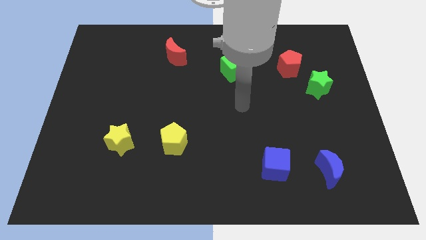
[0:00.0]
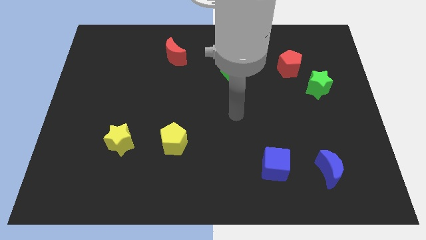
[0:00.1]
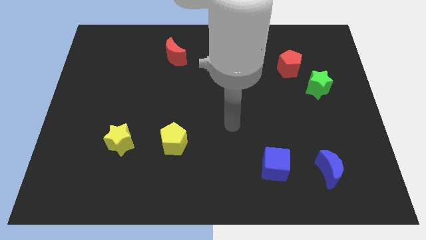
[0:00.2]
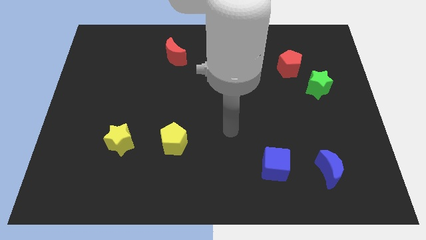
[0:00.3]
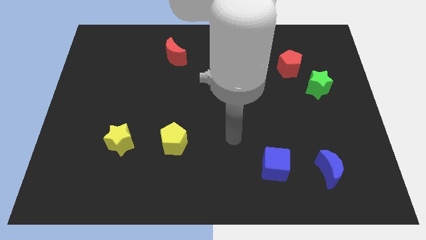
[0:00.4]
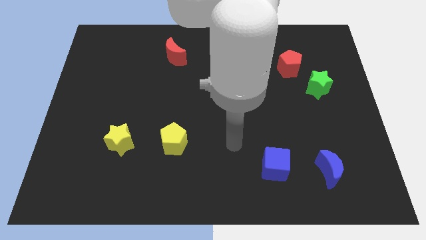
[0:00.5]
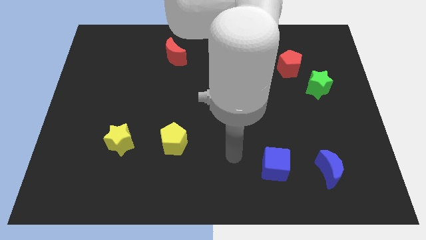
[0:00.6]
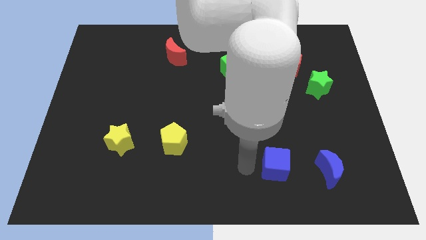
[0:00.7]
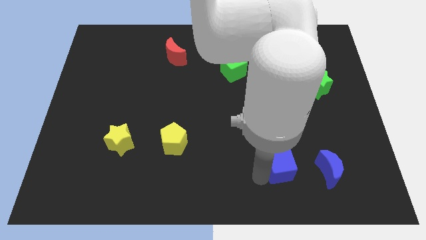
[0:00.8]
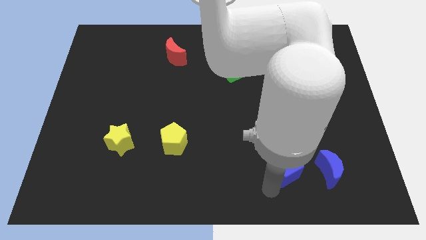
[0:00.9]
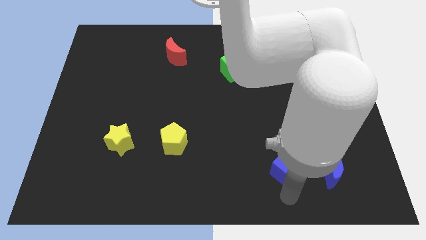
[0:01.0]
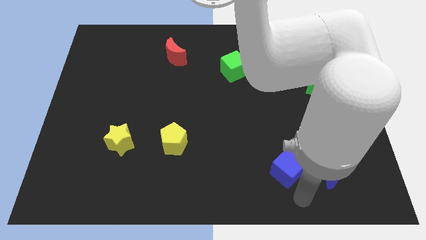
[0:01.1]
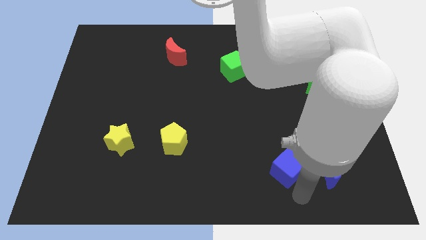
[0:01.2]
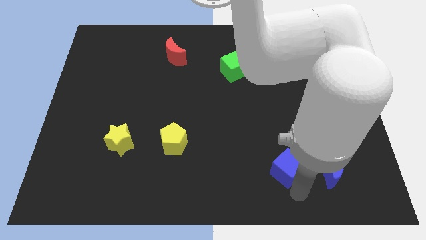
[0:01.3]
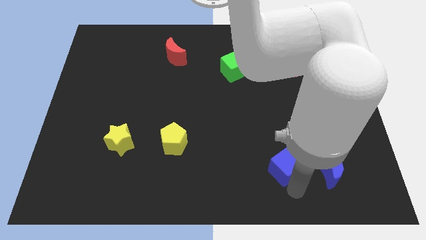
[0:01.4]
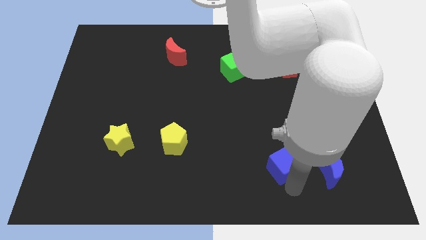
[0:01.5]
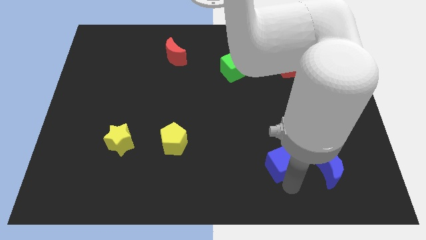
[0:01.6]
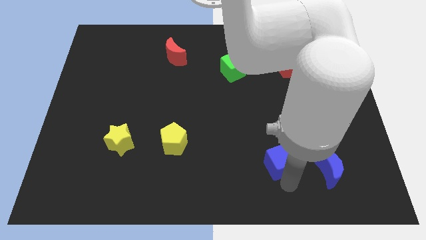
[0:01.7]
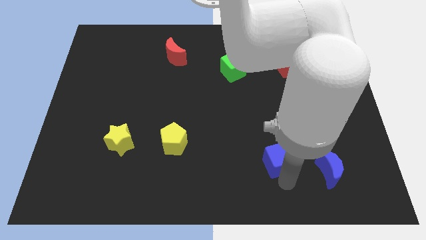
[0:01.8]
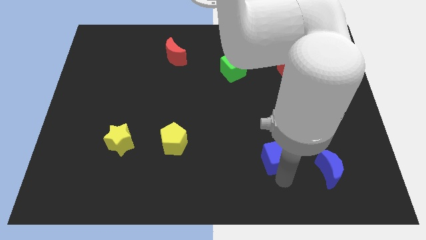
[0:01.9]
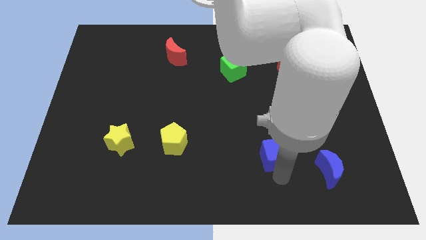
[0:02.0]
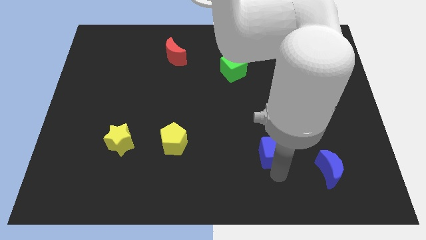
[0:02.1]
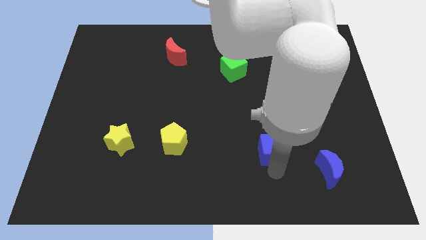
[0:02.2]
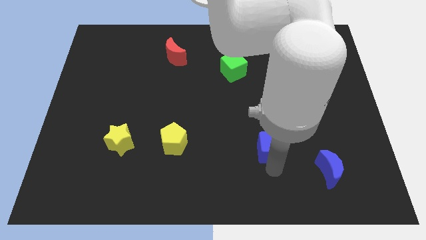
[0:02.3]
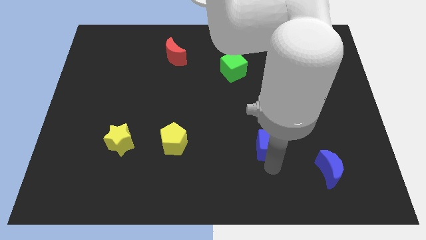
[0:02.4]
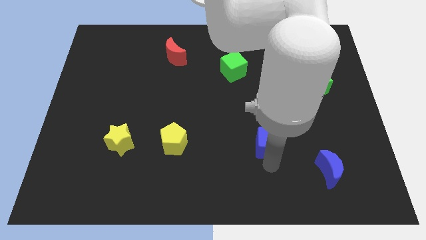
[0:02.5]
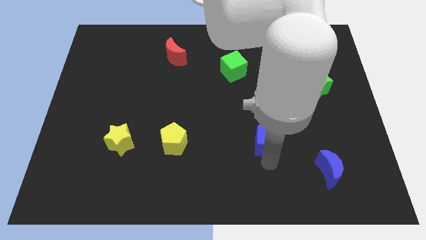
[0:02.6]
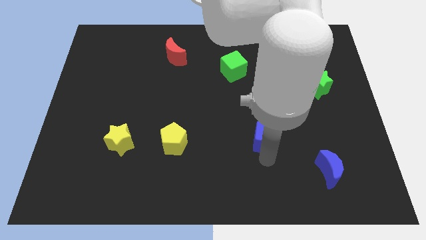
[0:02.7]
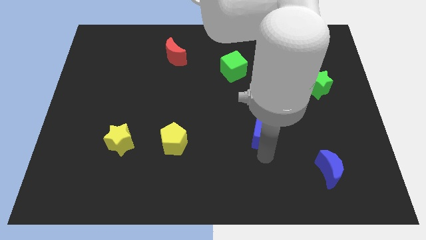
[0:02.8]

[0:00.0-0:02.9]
slightly push the blue cube upwards

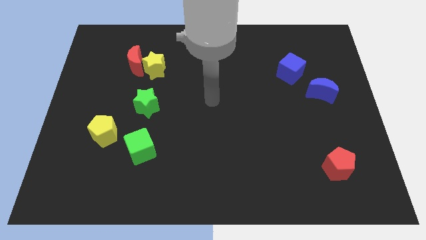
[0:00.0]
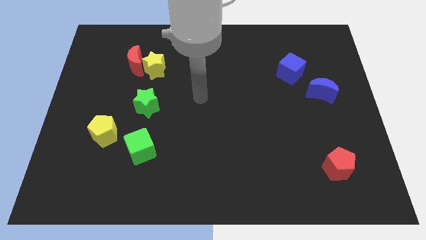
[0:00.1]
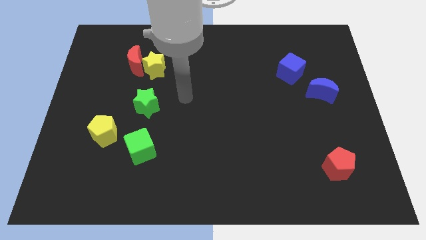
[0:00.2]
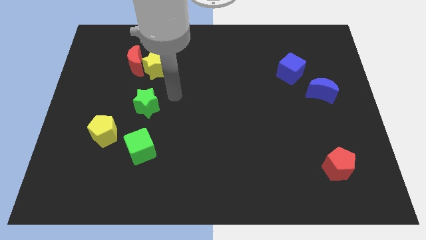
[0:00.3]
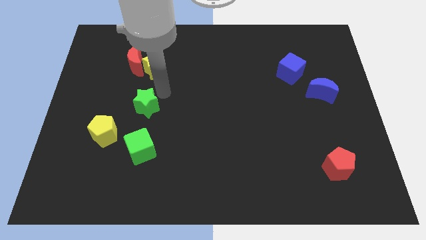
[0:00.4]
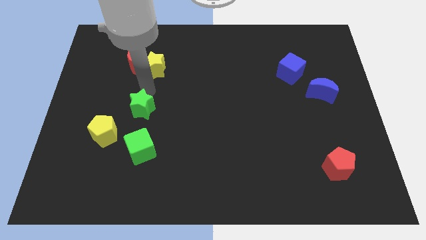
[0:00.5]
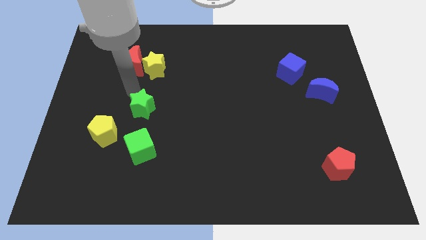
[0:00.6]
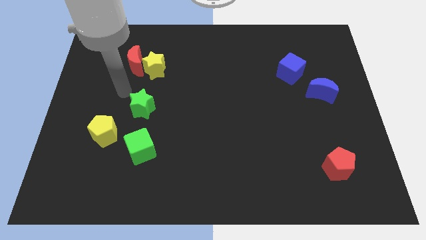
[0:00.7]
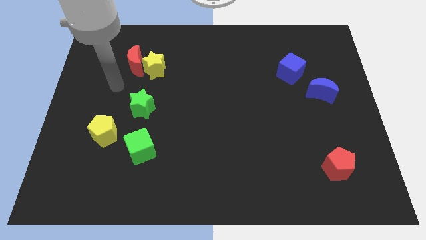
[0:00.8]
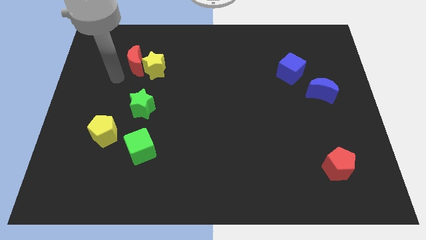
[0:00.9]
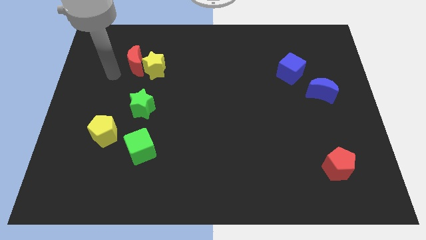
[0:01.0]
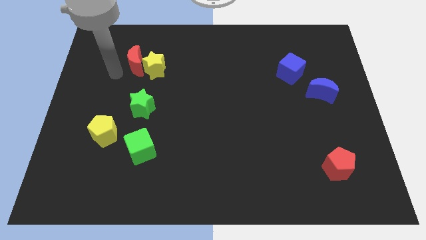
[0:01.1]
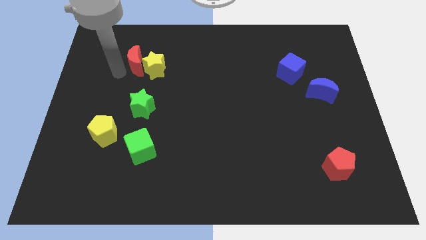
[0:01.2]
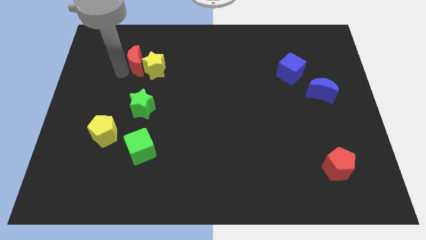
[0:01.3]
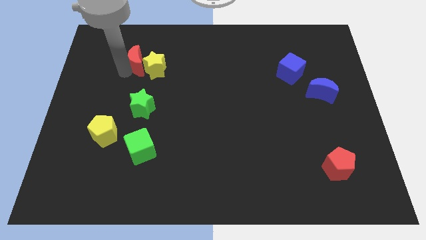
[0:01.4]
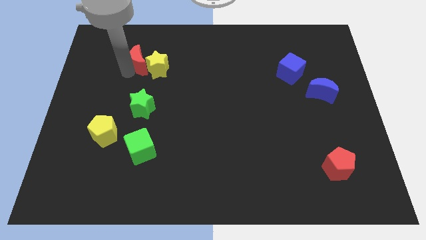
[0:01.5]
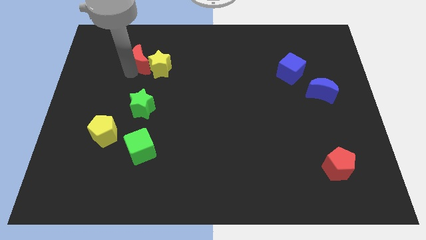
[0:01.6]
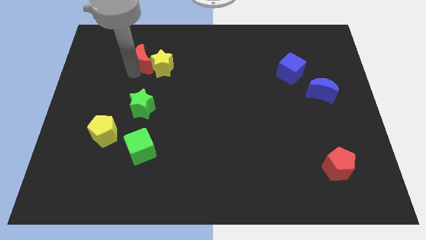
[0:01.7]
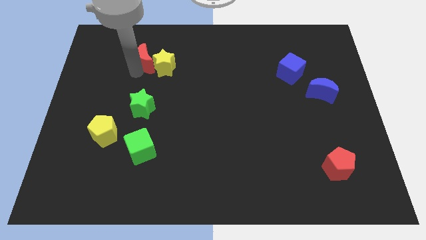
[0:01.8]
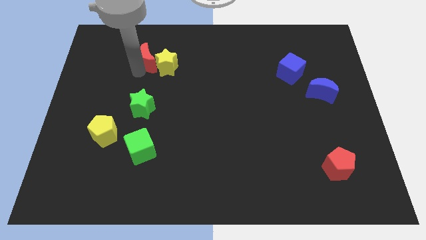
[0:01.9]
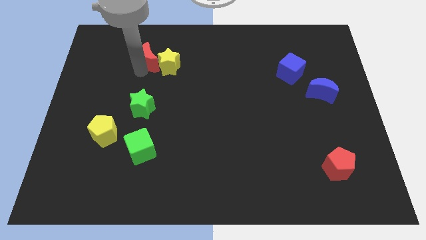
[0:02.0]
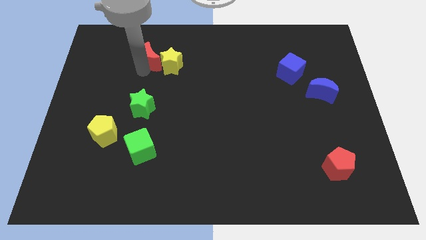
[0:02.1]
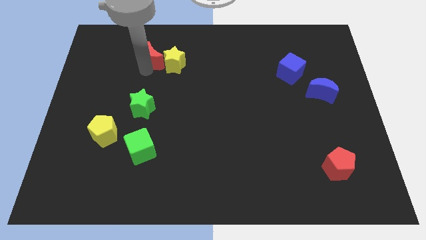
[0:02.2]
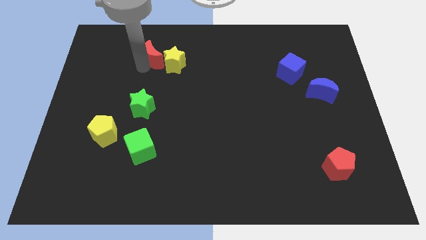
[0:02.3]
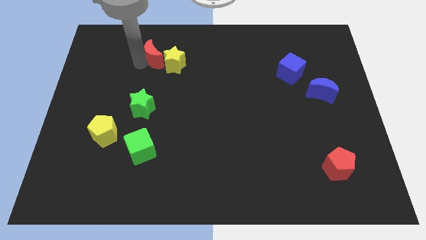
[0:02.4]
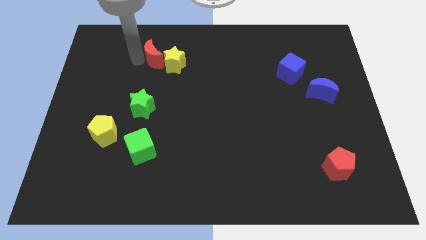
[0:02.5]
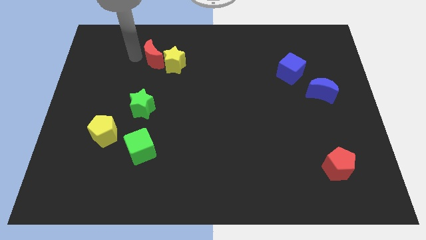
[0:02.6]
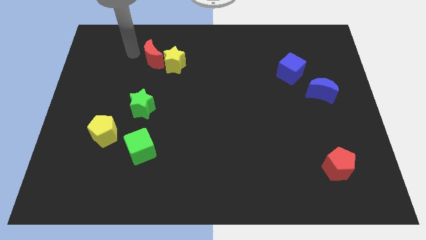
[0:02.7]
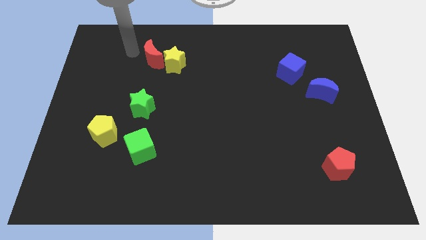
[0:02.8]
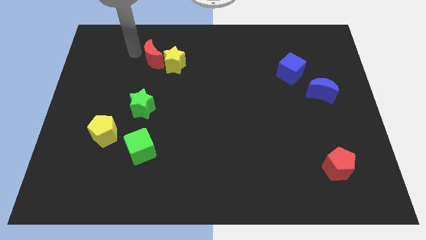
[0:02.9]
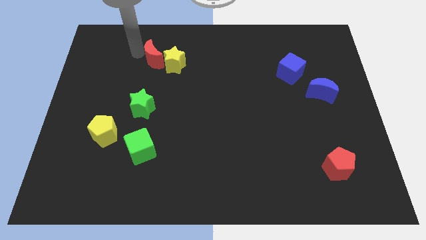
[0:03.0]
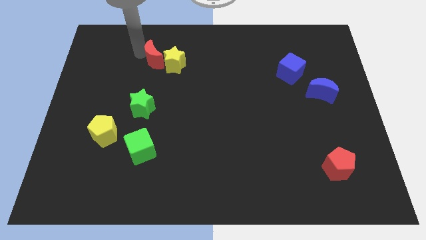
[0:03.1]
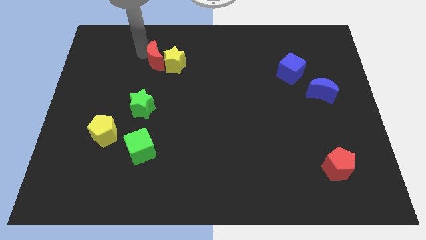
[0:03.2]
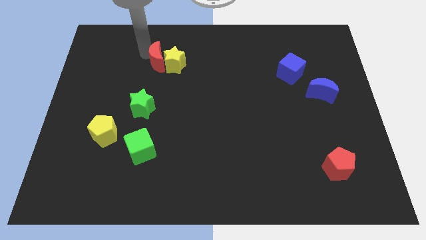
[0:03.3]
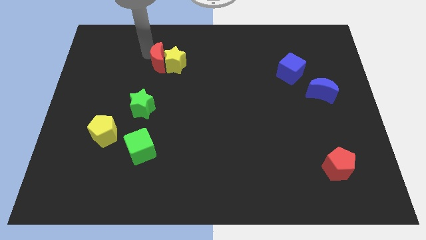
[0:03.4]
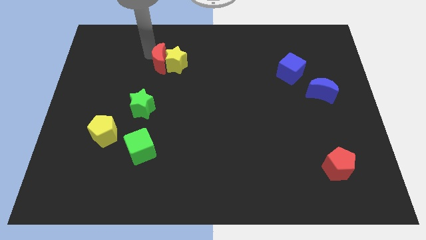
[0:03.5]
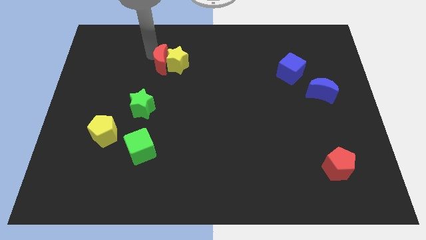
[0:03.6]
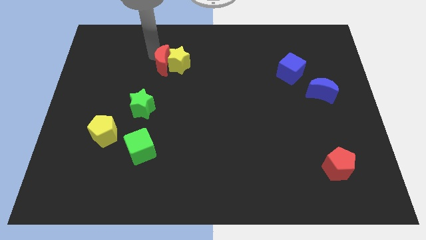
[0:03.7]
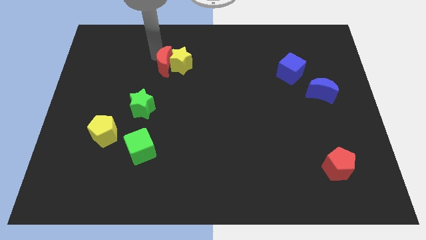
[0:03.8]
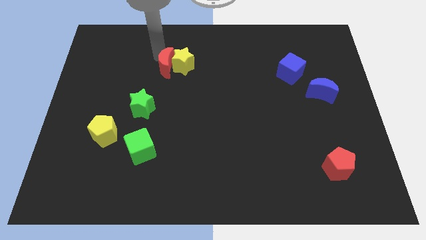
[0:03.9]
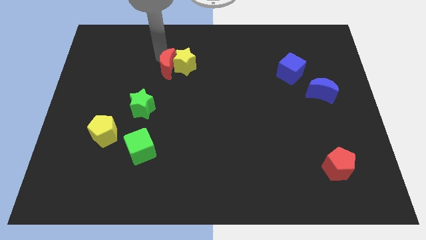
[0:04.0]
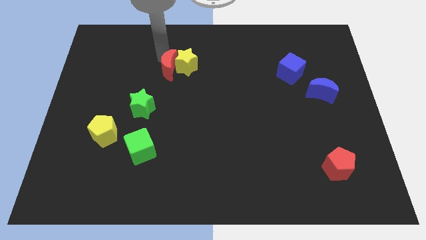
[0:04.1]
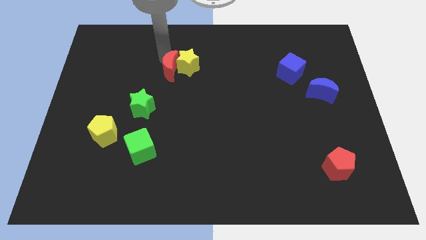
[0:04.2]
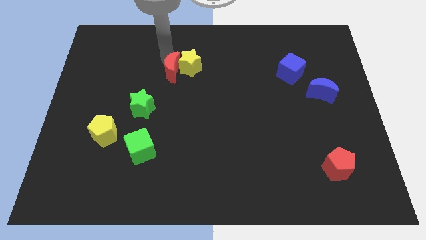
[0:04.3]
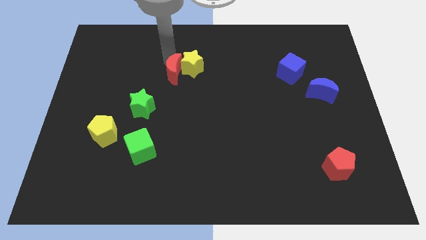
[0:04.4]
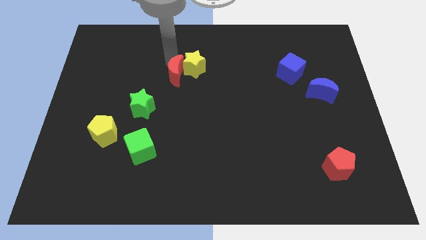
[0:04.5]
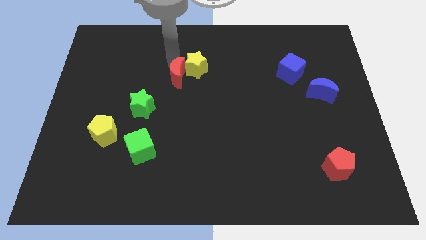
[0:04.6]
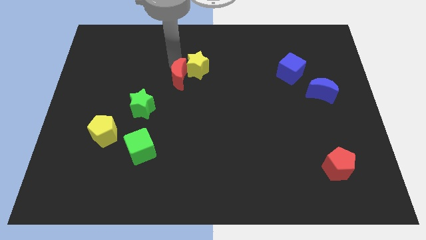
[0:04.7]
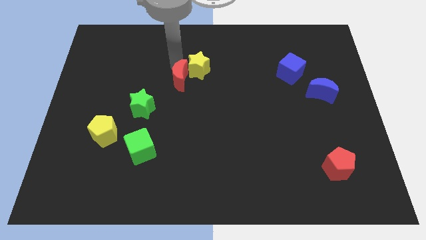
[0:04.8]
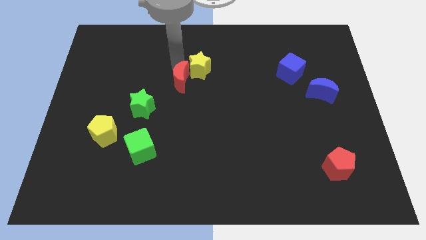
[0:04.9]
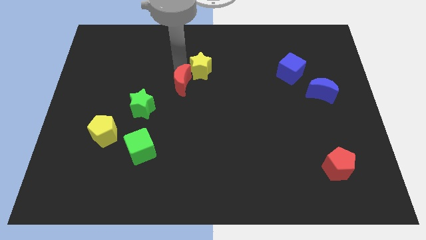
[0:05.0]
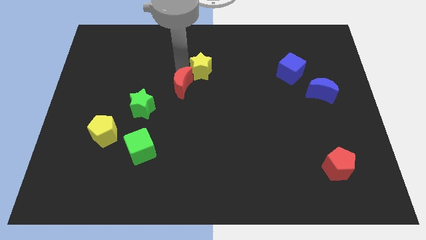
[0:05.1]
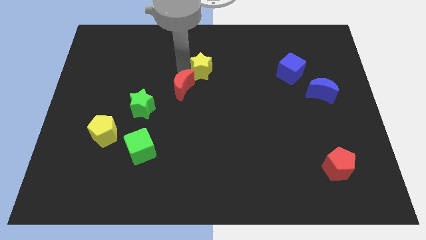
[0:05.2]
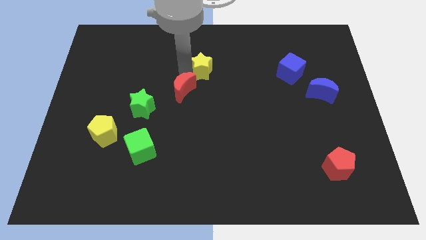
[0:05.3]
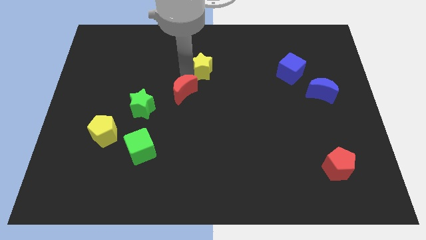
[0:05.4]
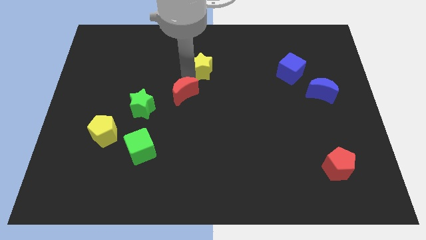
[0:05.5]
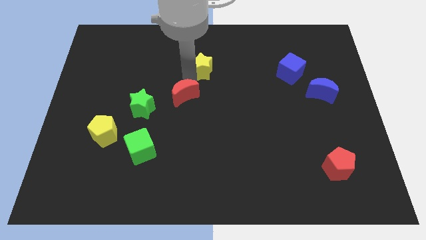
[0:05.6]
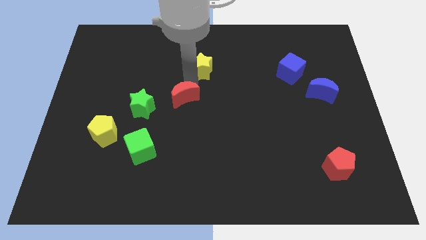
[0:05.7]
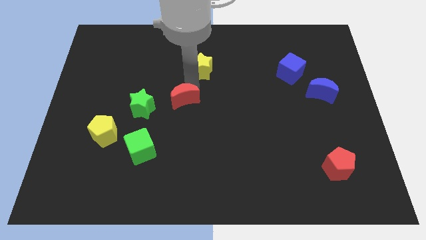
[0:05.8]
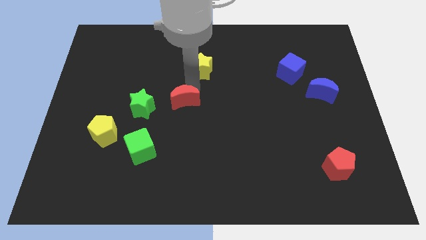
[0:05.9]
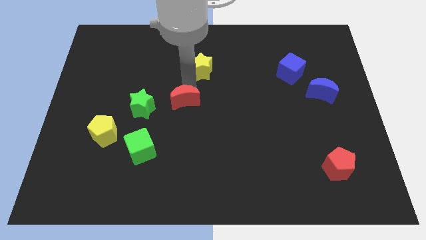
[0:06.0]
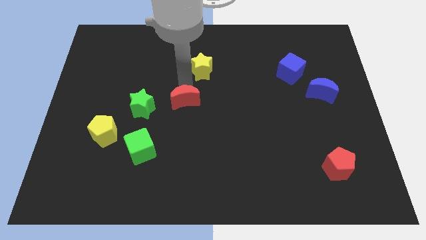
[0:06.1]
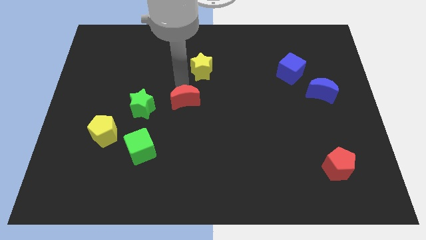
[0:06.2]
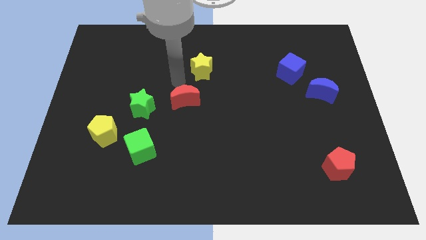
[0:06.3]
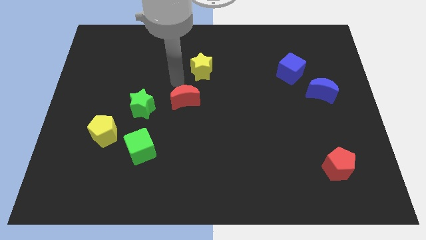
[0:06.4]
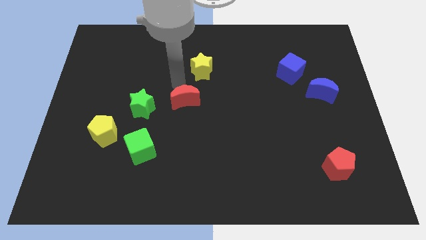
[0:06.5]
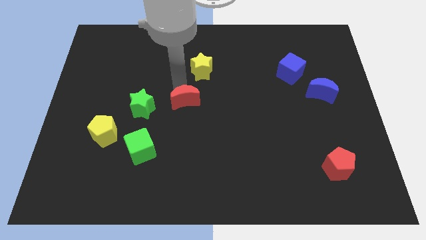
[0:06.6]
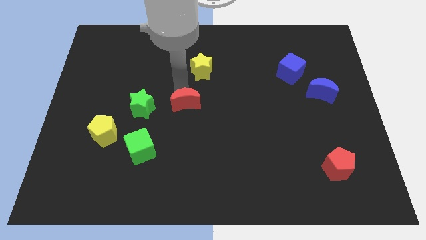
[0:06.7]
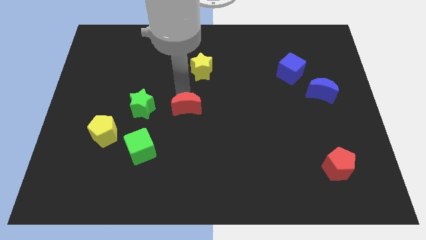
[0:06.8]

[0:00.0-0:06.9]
push the red moon downwards and then to the right
